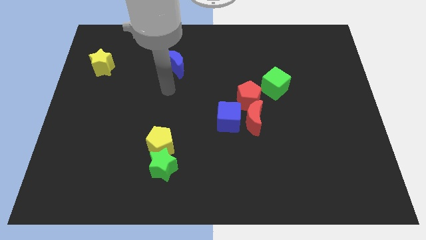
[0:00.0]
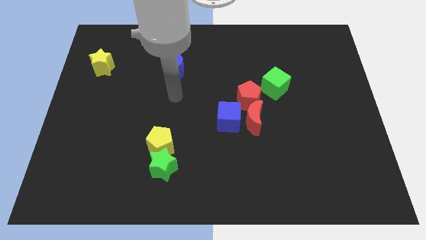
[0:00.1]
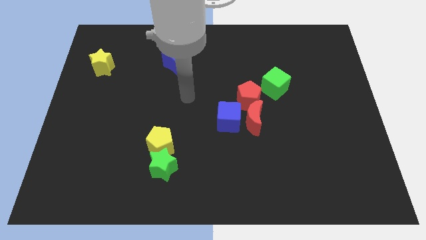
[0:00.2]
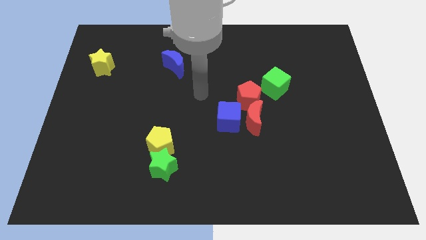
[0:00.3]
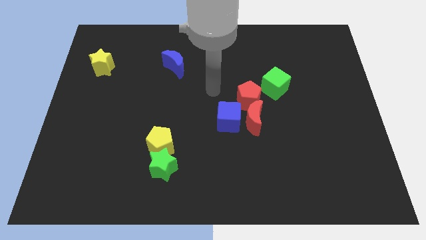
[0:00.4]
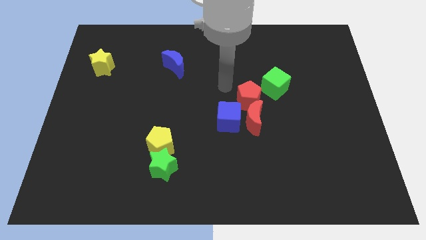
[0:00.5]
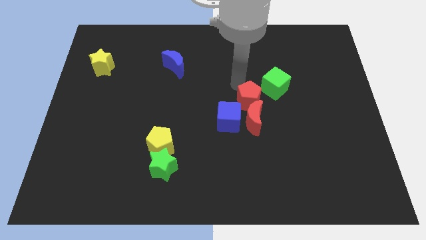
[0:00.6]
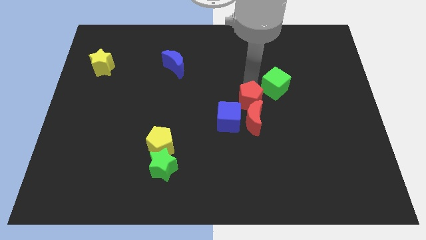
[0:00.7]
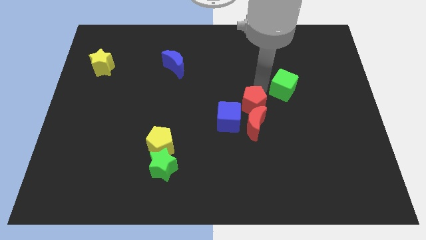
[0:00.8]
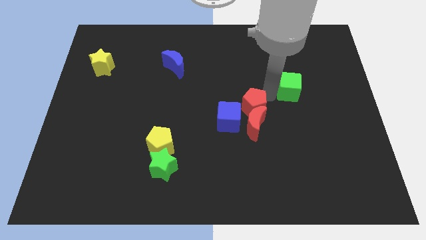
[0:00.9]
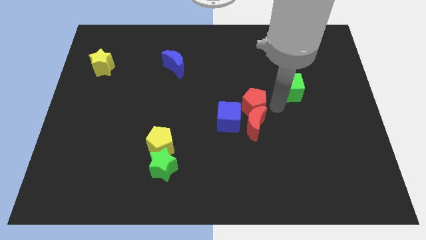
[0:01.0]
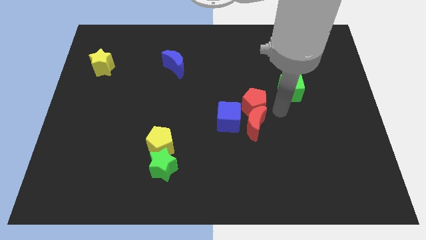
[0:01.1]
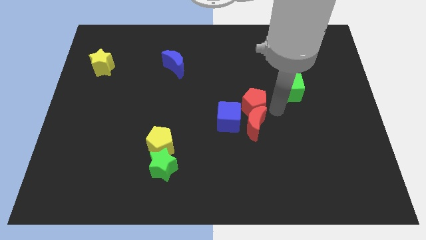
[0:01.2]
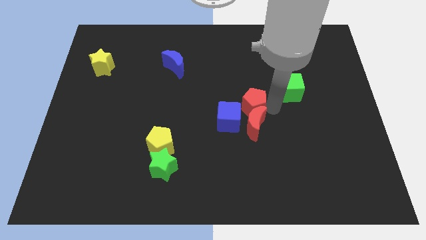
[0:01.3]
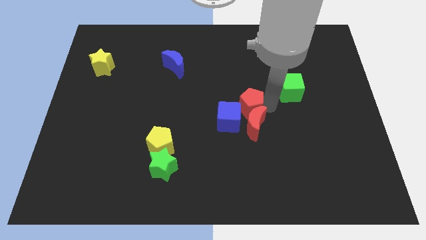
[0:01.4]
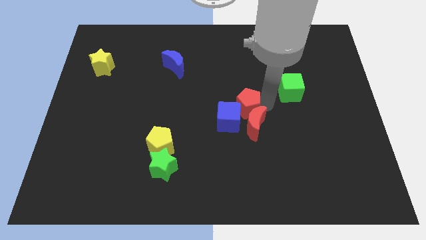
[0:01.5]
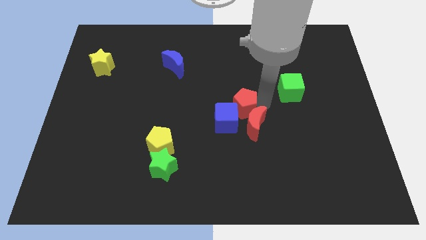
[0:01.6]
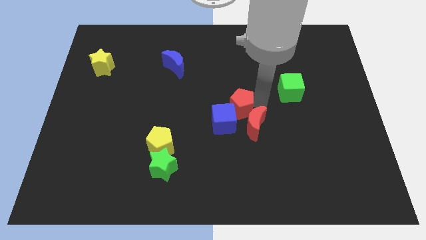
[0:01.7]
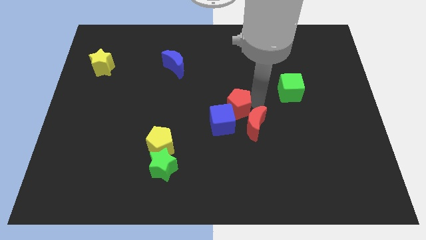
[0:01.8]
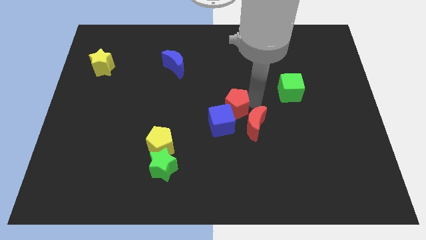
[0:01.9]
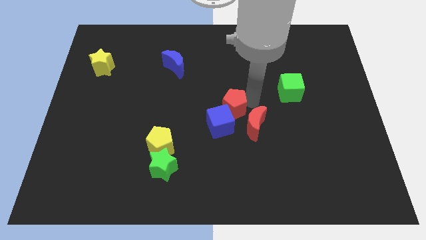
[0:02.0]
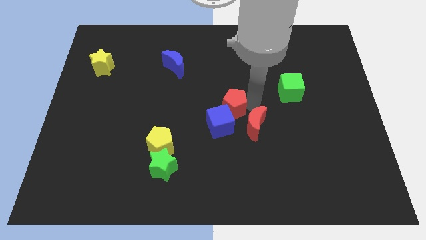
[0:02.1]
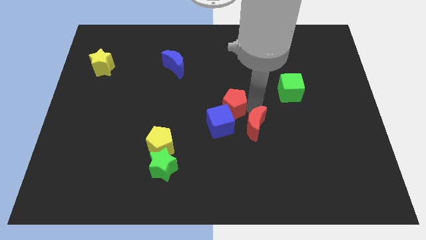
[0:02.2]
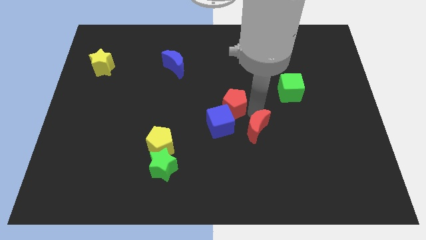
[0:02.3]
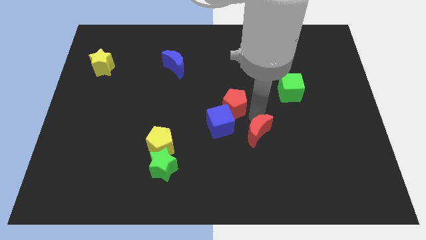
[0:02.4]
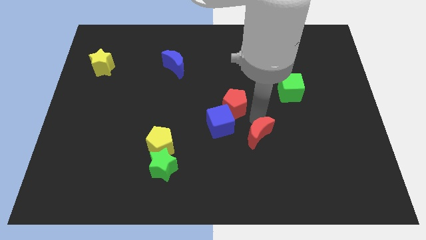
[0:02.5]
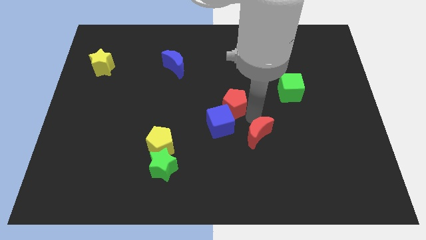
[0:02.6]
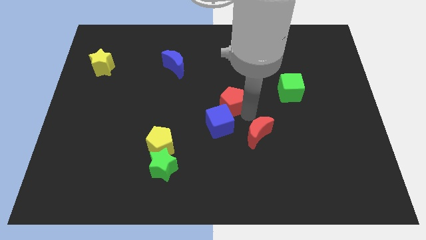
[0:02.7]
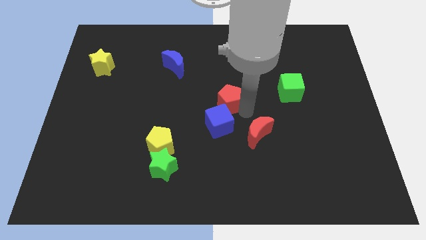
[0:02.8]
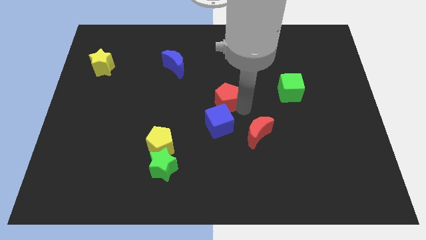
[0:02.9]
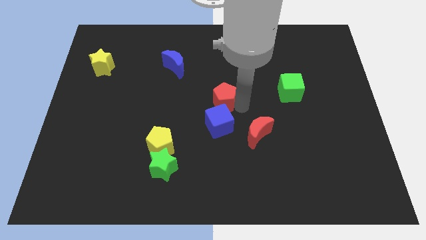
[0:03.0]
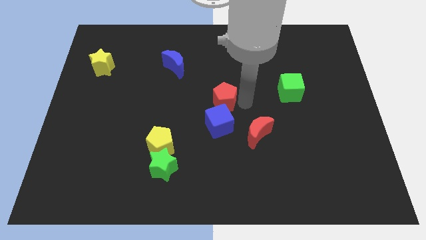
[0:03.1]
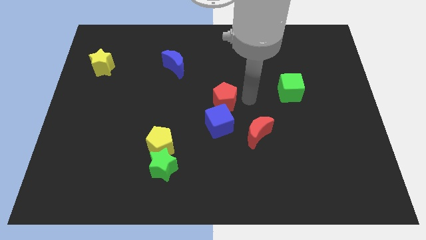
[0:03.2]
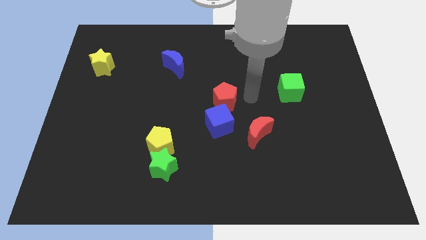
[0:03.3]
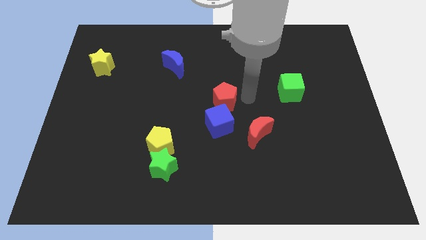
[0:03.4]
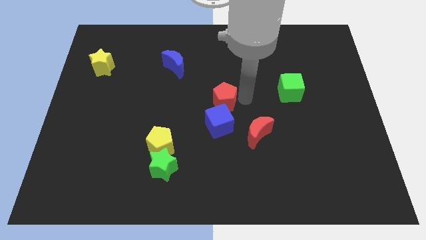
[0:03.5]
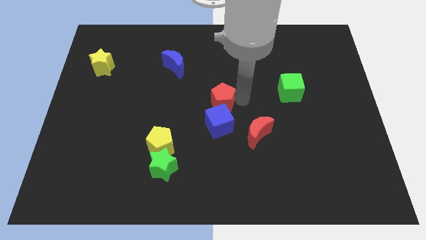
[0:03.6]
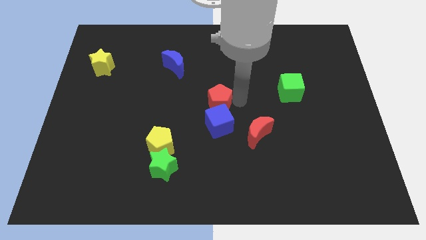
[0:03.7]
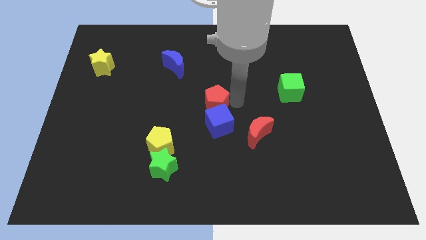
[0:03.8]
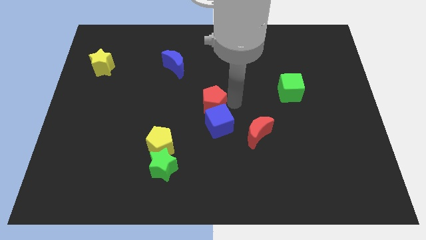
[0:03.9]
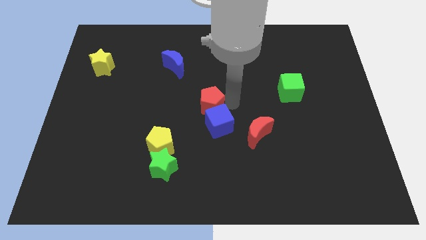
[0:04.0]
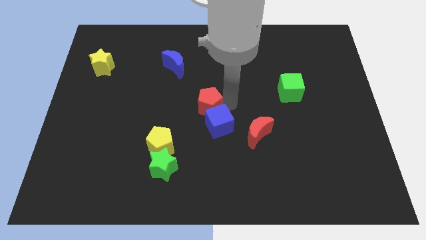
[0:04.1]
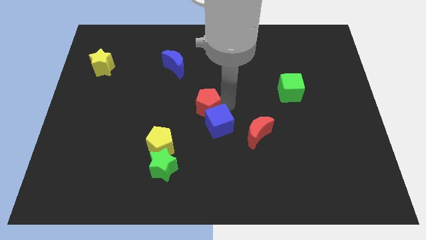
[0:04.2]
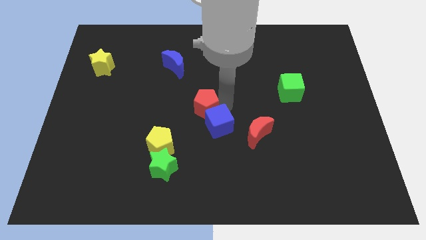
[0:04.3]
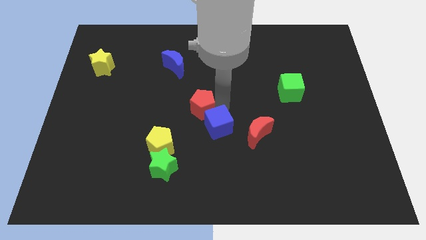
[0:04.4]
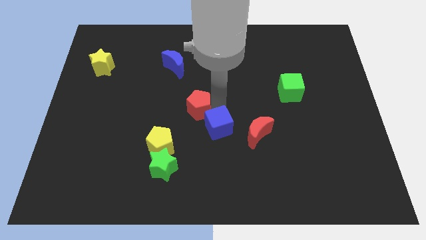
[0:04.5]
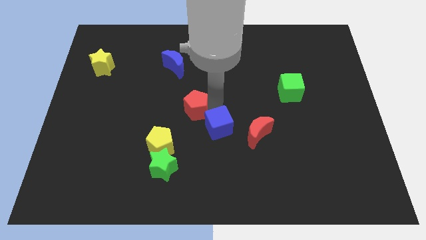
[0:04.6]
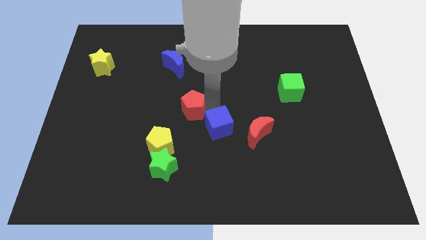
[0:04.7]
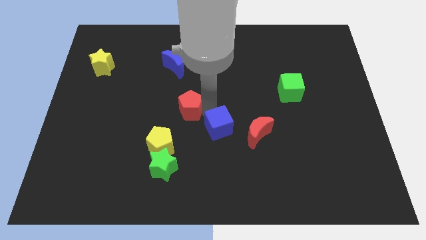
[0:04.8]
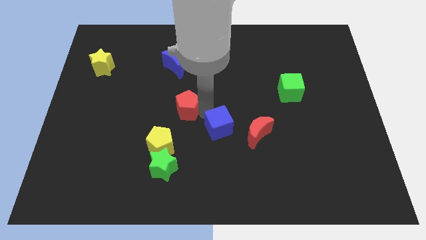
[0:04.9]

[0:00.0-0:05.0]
push the red pentagon to the bottom side of the blue moon
